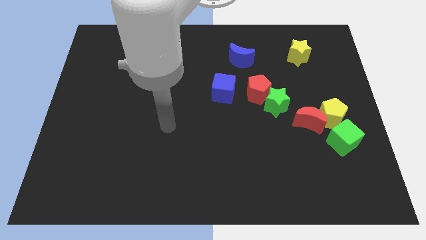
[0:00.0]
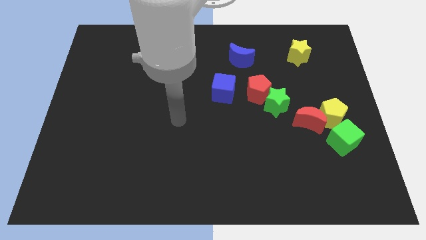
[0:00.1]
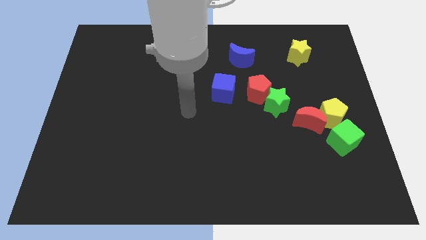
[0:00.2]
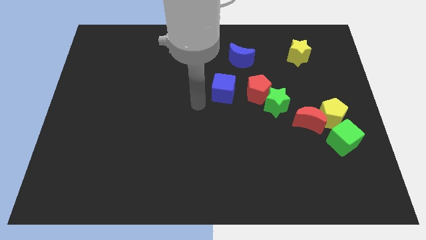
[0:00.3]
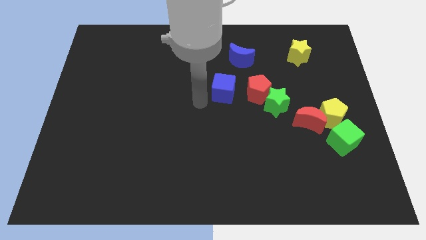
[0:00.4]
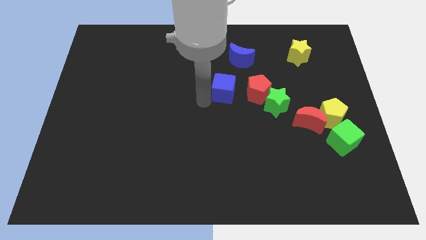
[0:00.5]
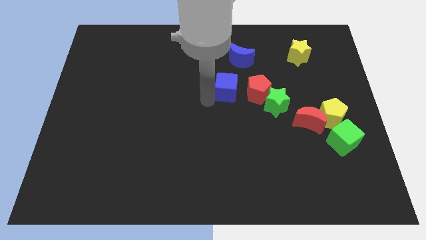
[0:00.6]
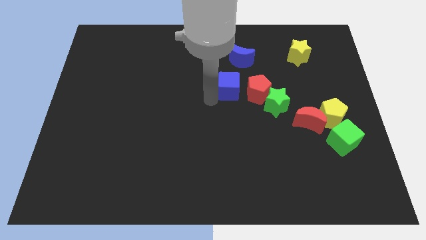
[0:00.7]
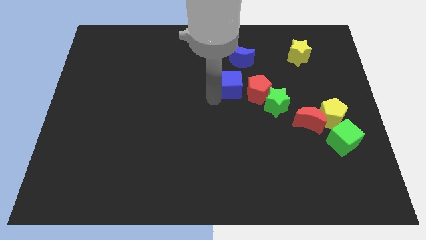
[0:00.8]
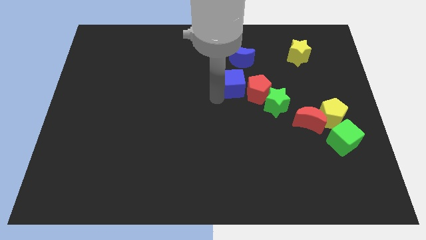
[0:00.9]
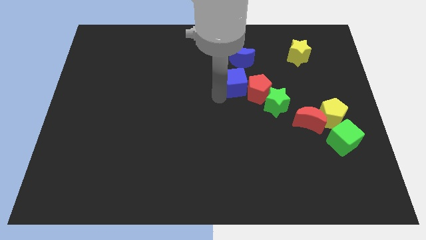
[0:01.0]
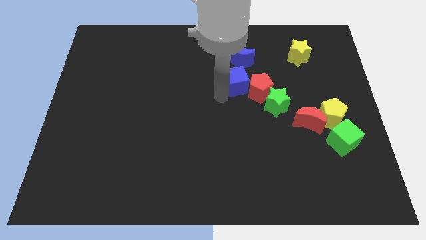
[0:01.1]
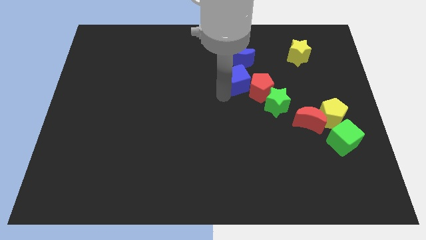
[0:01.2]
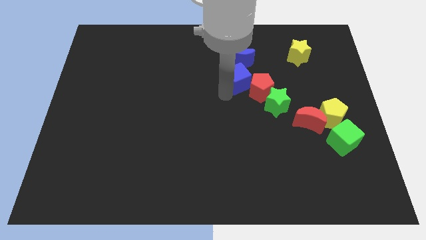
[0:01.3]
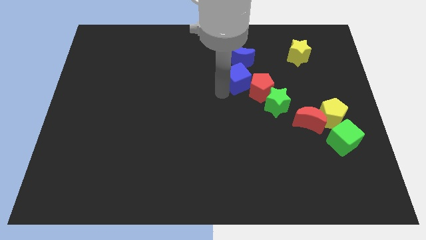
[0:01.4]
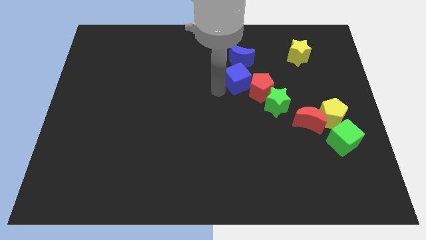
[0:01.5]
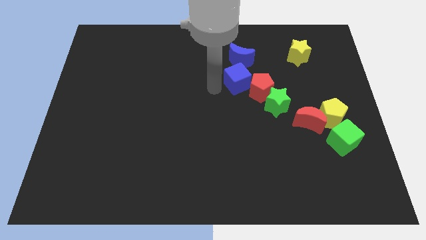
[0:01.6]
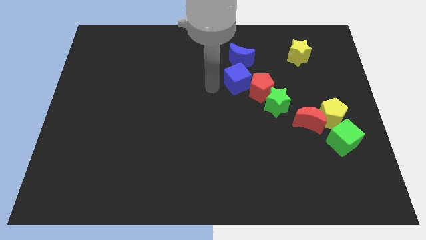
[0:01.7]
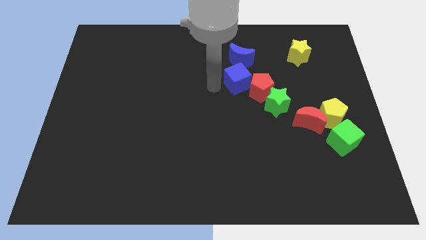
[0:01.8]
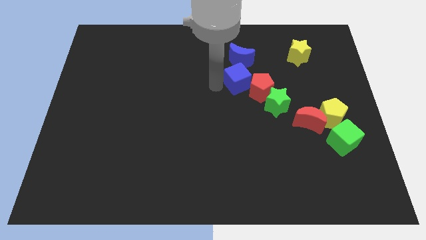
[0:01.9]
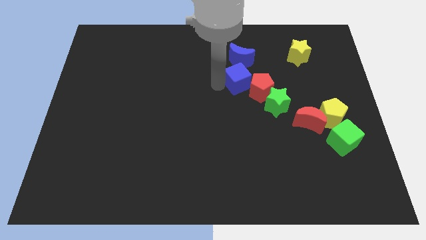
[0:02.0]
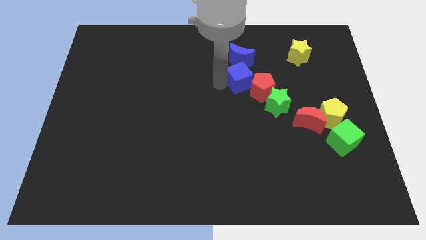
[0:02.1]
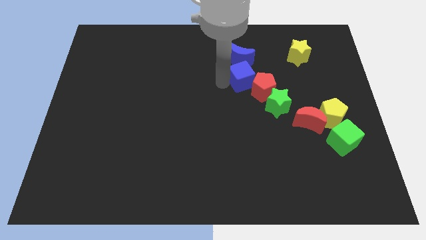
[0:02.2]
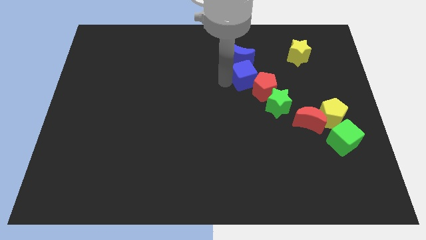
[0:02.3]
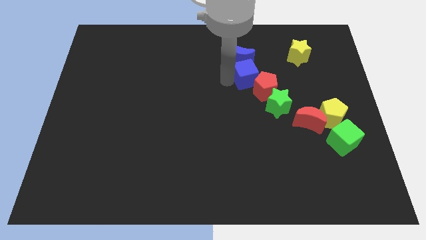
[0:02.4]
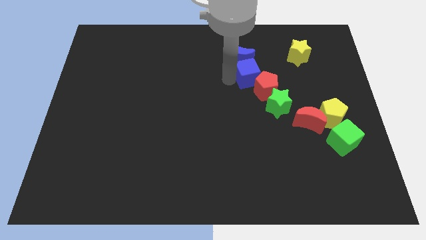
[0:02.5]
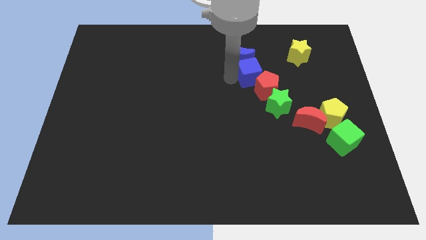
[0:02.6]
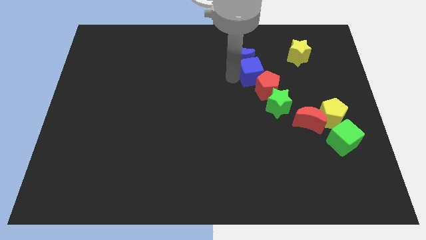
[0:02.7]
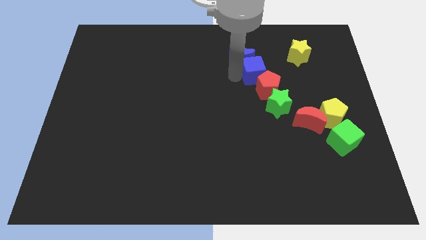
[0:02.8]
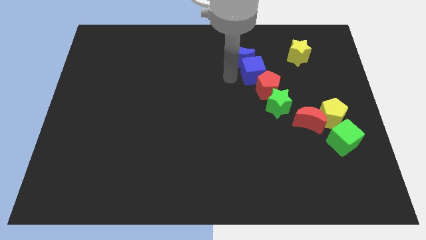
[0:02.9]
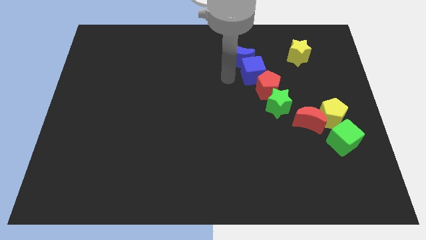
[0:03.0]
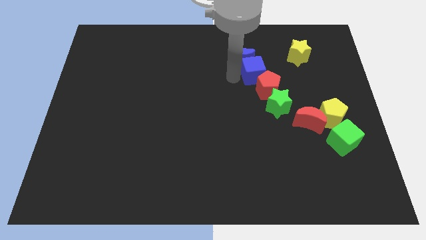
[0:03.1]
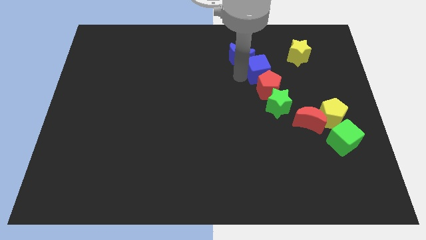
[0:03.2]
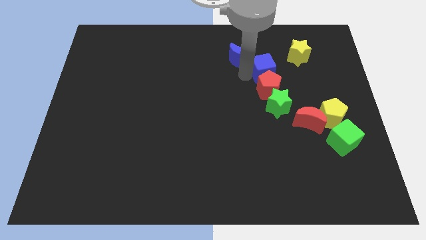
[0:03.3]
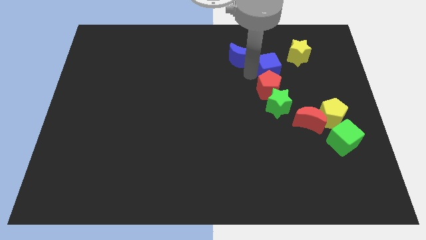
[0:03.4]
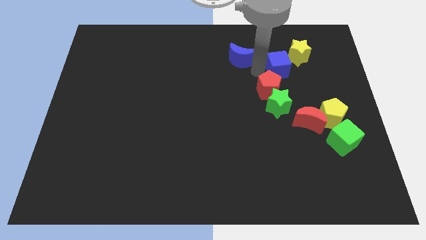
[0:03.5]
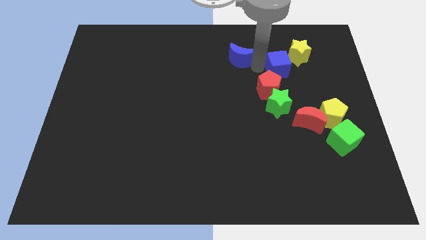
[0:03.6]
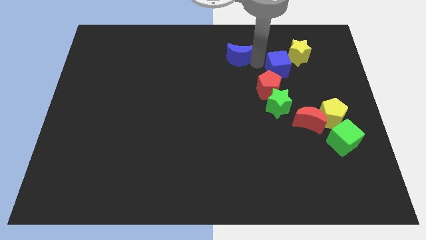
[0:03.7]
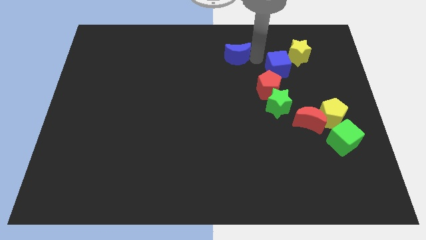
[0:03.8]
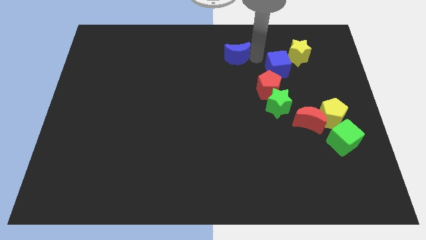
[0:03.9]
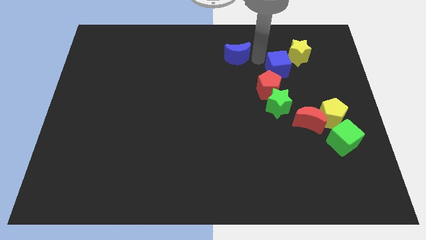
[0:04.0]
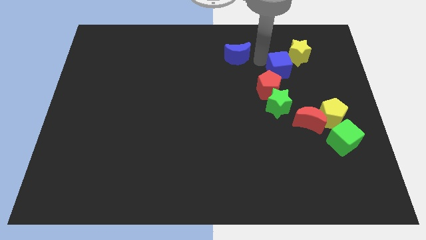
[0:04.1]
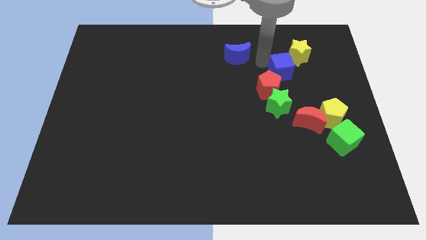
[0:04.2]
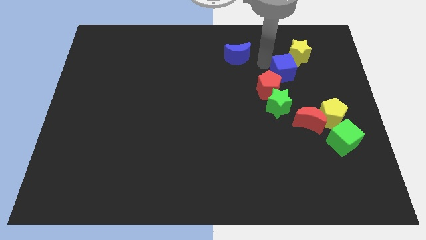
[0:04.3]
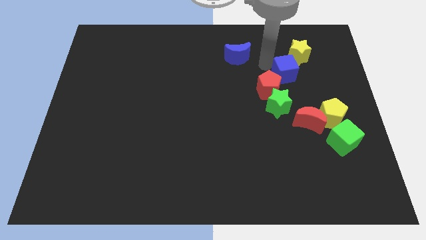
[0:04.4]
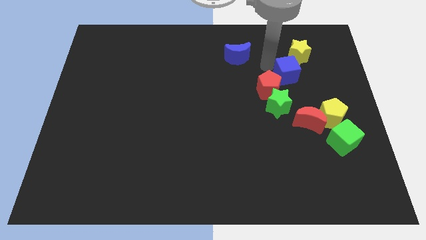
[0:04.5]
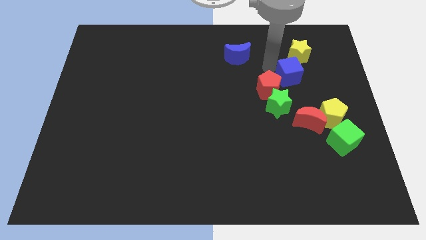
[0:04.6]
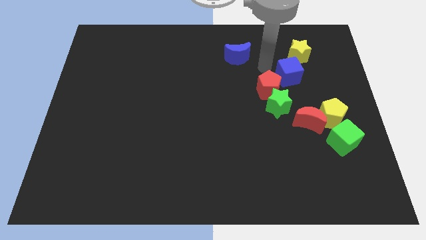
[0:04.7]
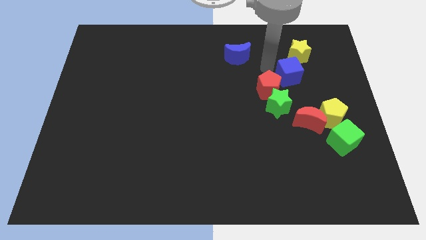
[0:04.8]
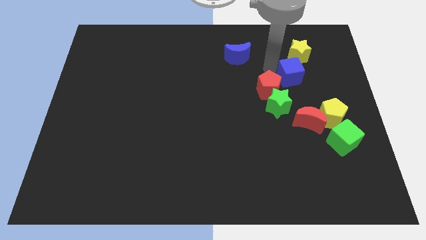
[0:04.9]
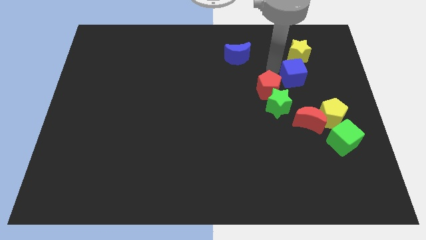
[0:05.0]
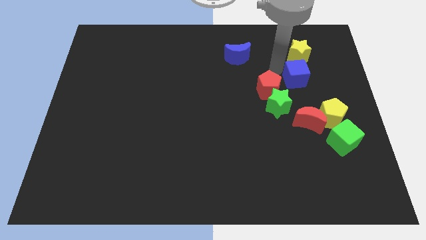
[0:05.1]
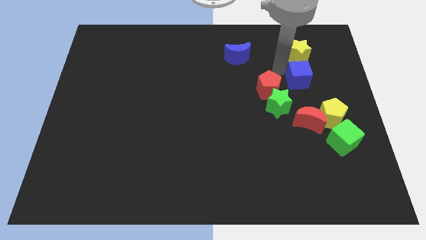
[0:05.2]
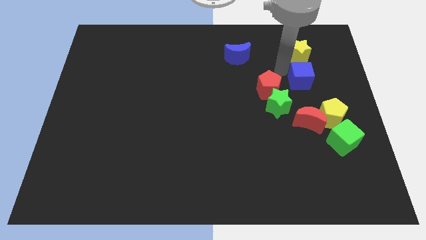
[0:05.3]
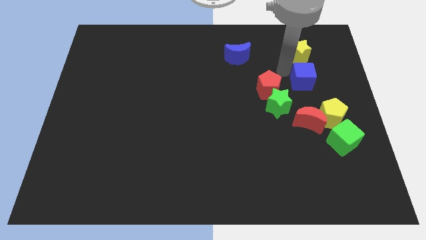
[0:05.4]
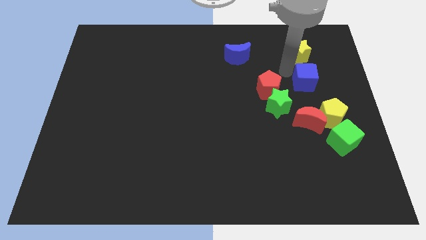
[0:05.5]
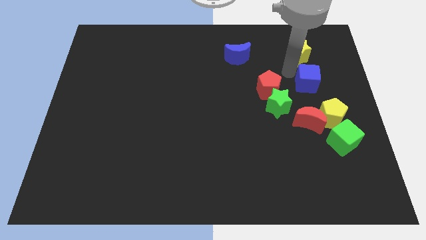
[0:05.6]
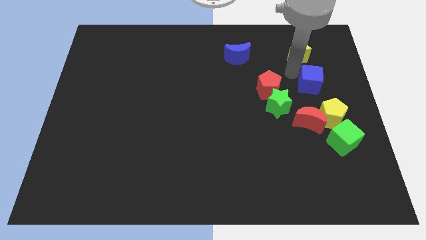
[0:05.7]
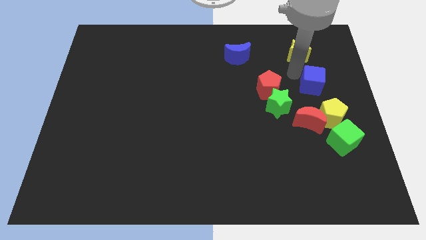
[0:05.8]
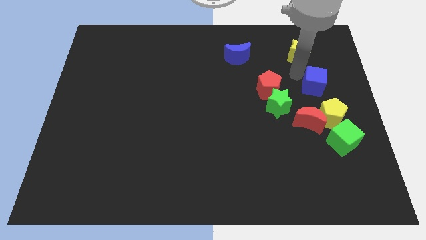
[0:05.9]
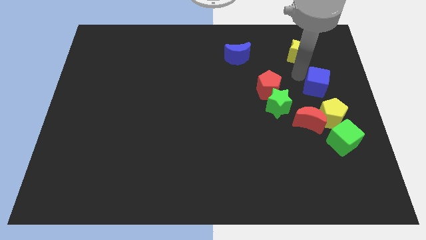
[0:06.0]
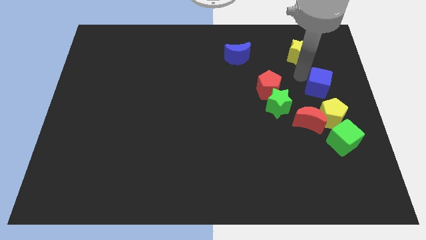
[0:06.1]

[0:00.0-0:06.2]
push the blue cube to the right side
